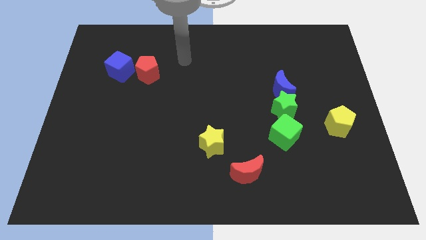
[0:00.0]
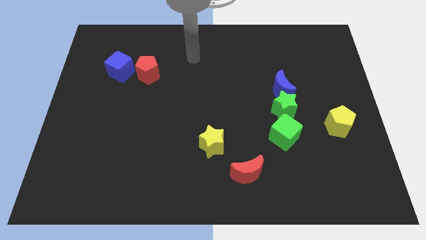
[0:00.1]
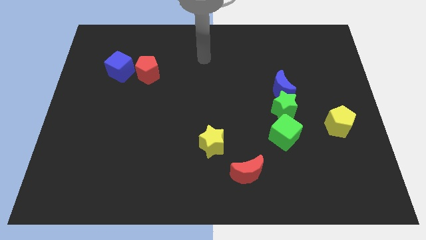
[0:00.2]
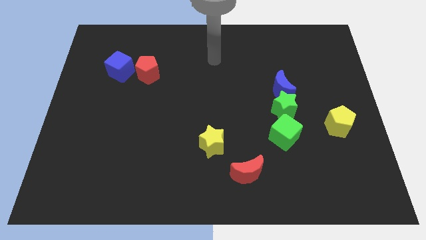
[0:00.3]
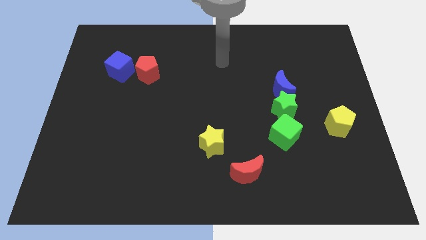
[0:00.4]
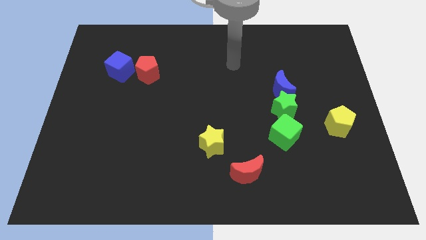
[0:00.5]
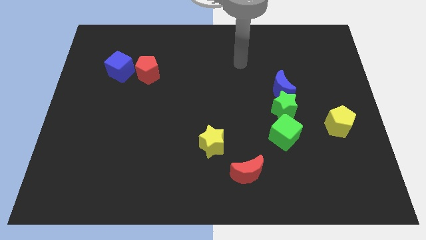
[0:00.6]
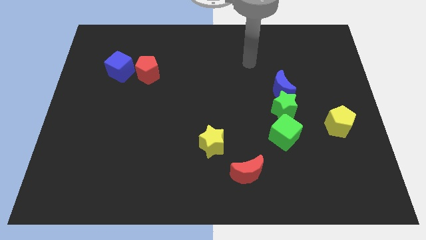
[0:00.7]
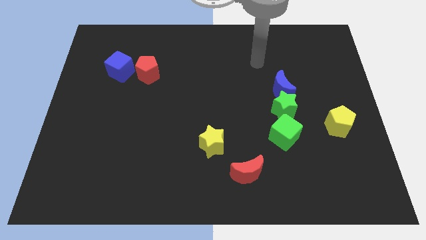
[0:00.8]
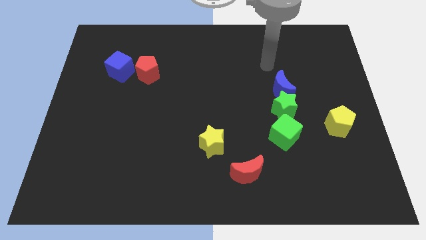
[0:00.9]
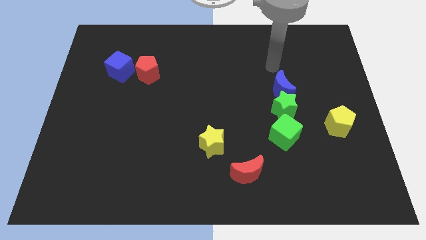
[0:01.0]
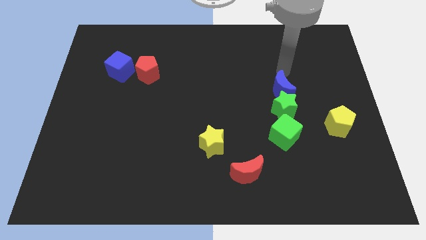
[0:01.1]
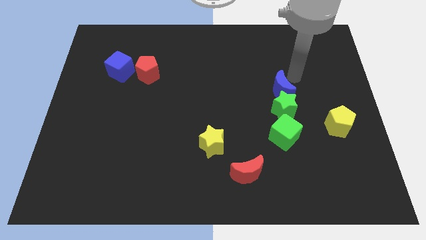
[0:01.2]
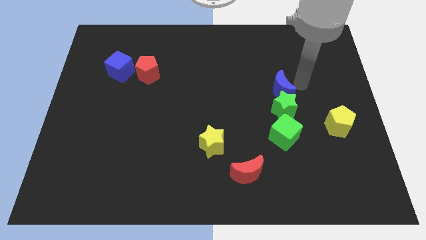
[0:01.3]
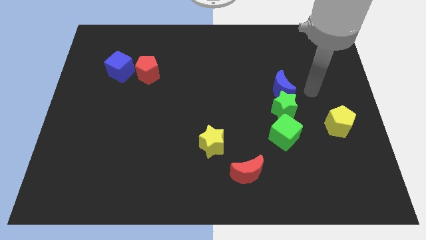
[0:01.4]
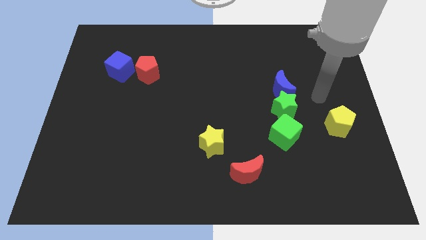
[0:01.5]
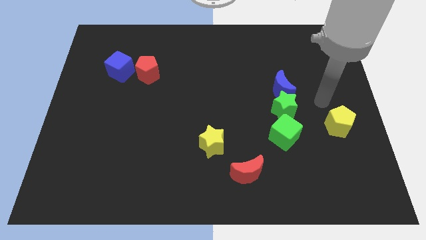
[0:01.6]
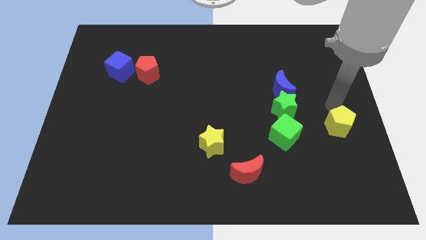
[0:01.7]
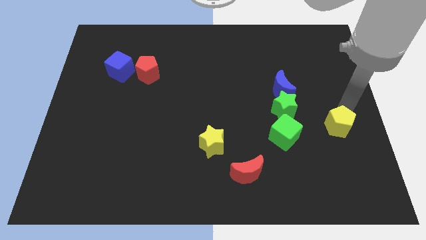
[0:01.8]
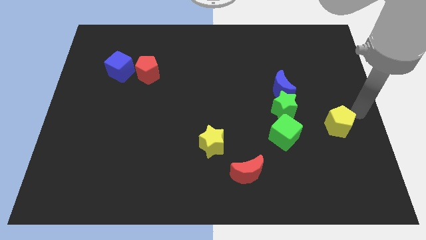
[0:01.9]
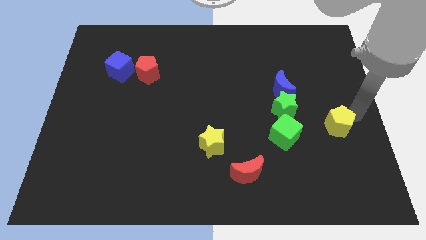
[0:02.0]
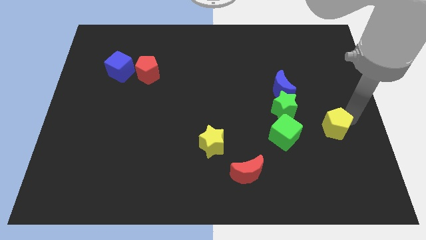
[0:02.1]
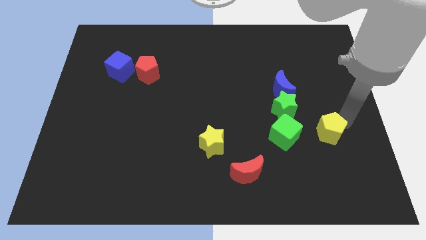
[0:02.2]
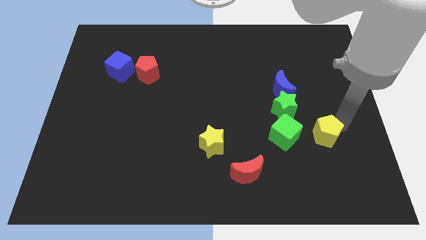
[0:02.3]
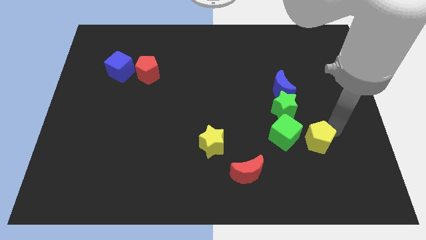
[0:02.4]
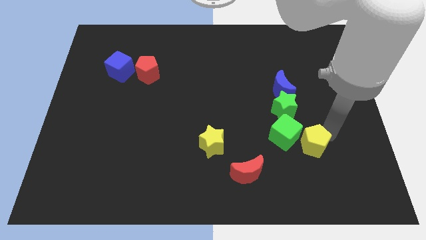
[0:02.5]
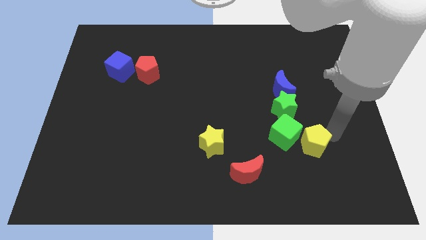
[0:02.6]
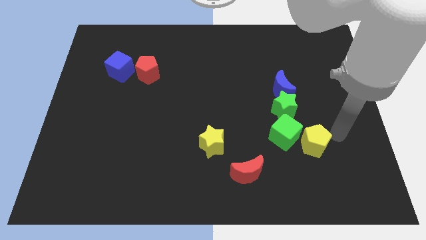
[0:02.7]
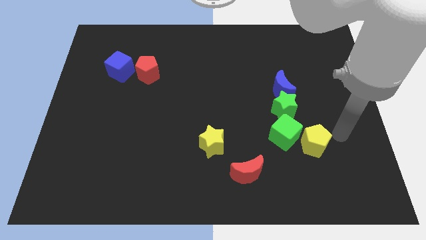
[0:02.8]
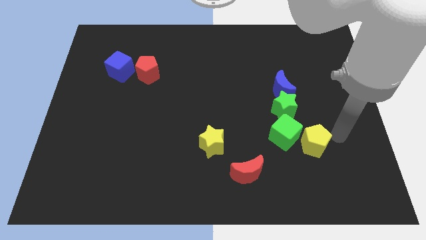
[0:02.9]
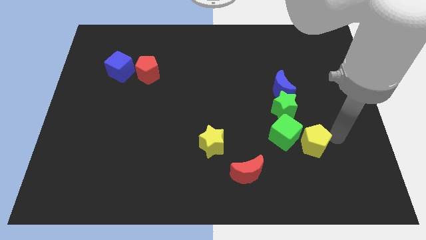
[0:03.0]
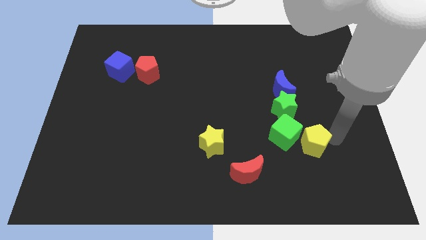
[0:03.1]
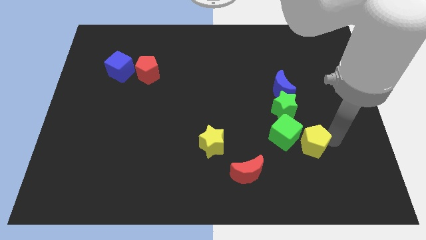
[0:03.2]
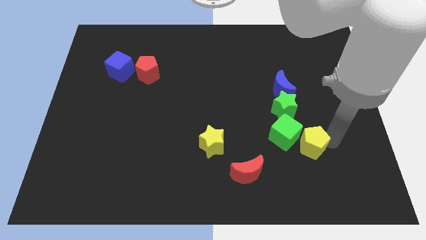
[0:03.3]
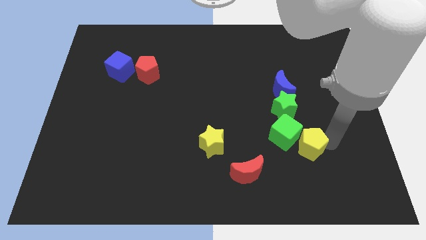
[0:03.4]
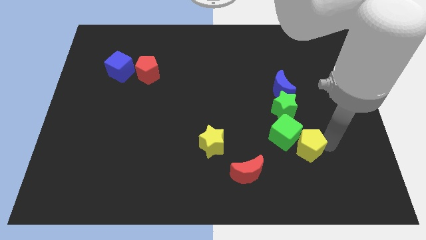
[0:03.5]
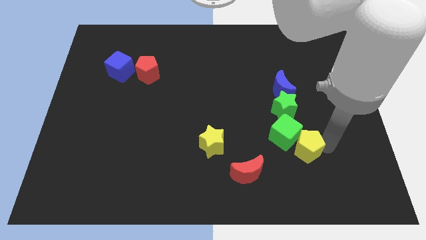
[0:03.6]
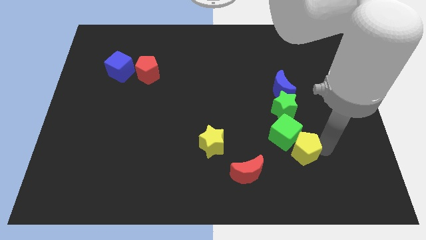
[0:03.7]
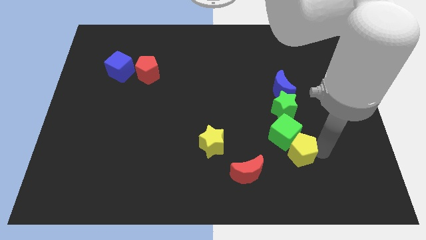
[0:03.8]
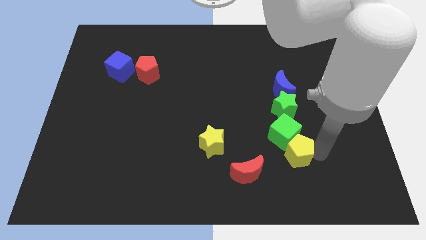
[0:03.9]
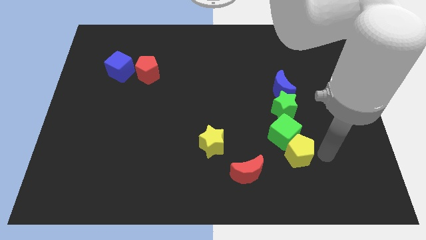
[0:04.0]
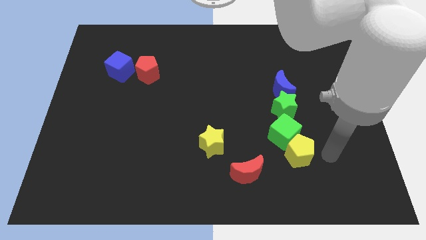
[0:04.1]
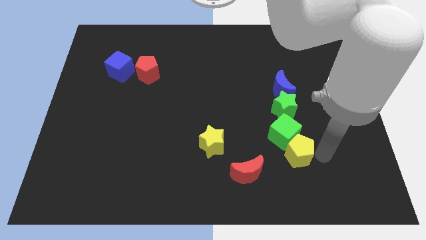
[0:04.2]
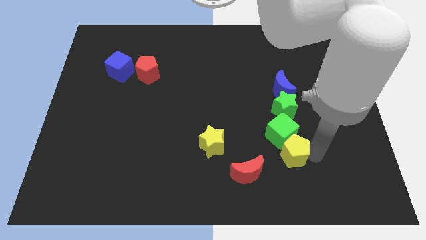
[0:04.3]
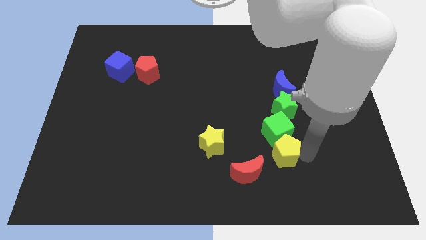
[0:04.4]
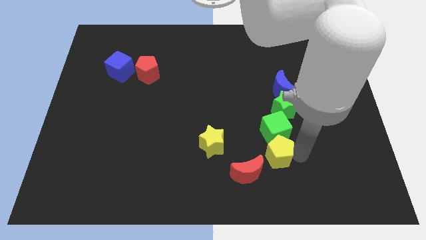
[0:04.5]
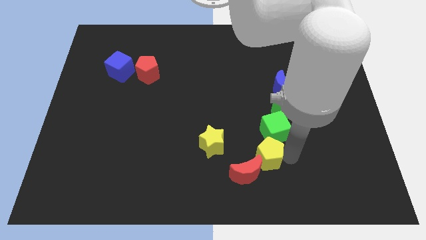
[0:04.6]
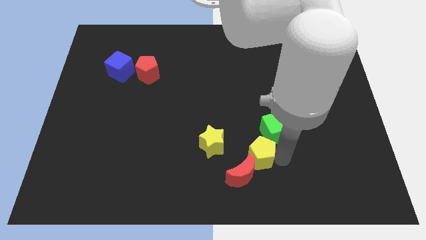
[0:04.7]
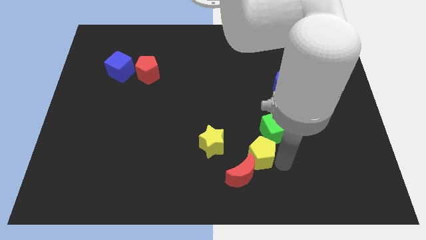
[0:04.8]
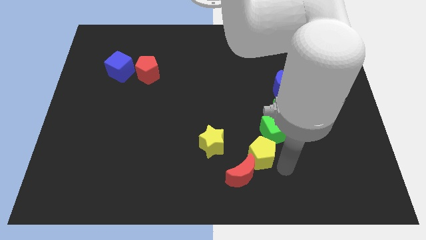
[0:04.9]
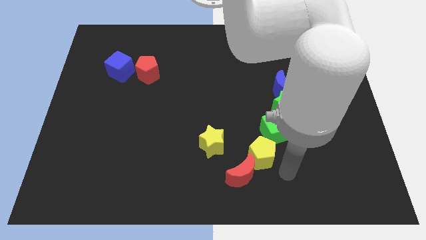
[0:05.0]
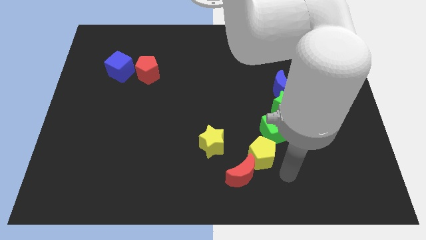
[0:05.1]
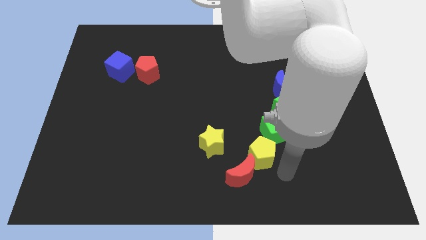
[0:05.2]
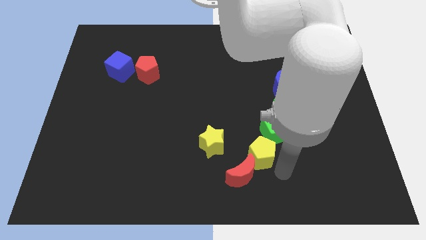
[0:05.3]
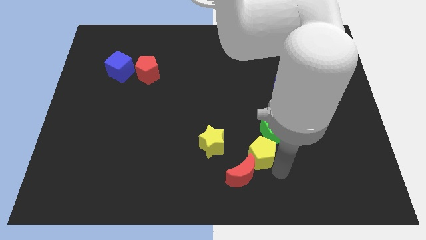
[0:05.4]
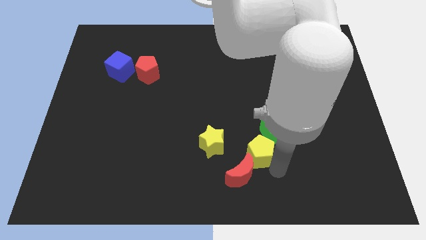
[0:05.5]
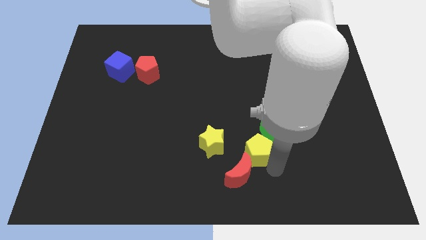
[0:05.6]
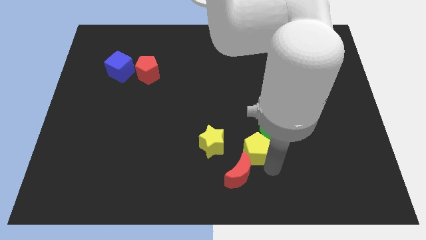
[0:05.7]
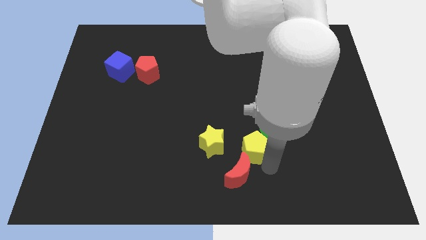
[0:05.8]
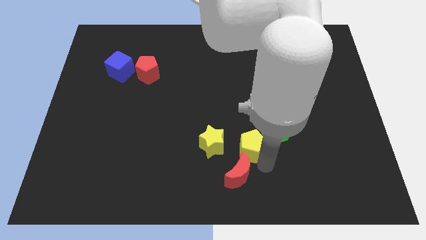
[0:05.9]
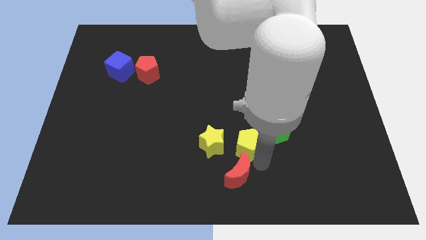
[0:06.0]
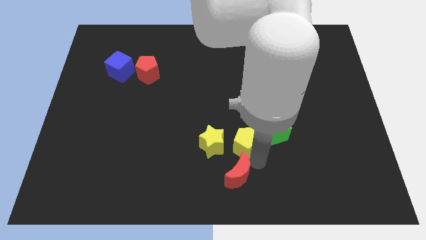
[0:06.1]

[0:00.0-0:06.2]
move the yellow pentagon to the left

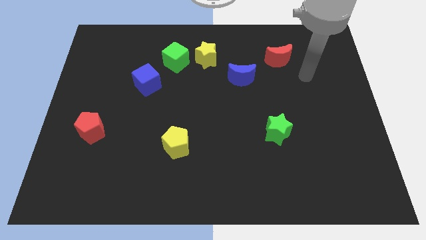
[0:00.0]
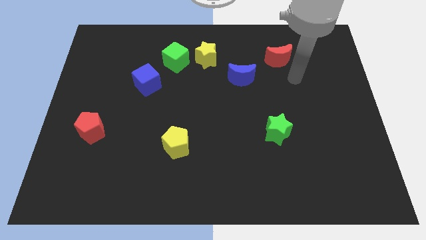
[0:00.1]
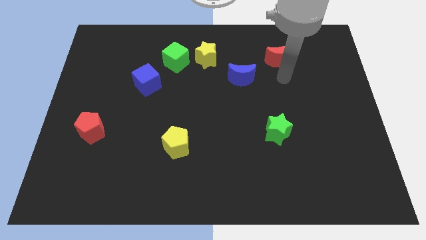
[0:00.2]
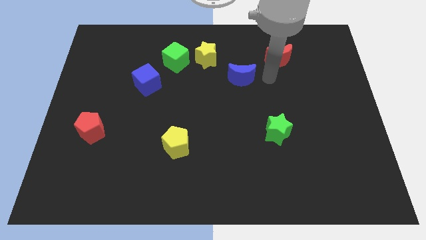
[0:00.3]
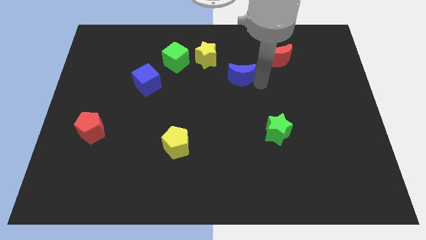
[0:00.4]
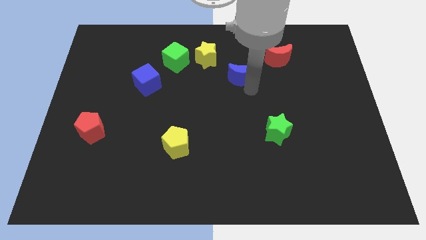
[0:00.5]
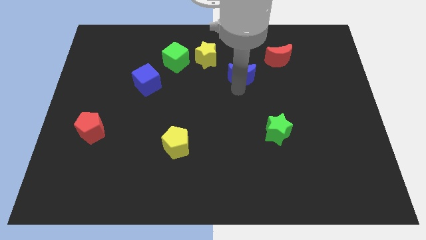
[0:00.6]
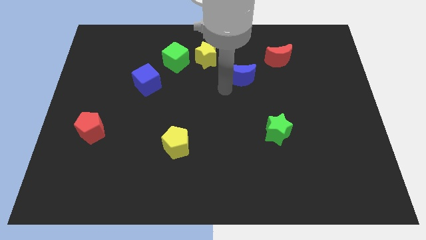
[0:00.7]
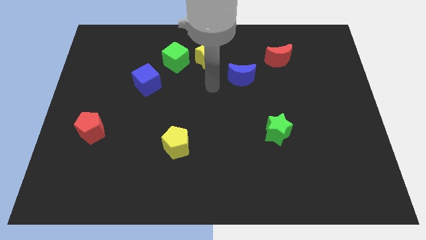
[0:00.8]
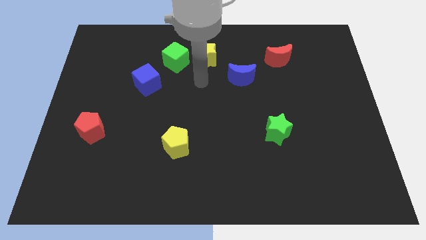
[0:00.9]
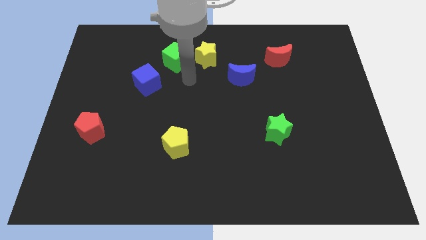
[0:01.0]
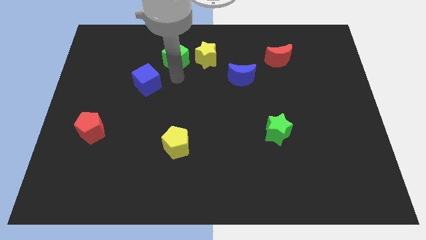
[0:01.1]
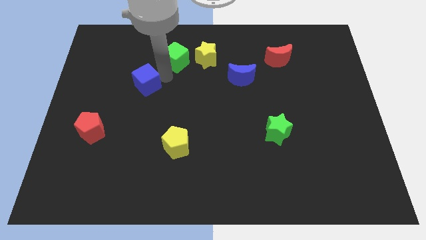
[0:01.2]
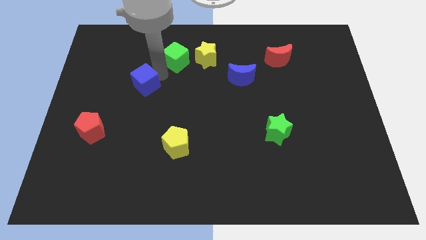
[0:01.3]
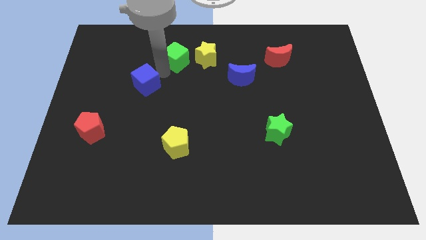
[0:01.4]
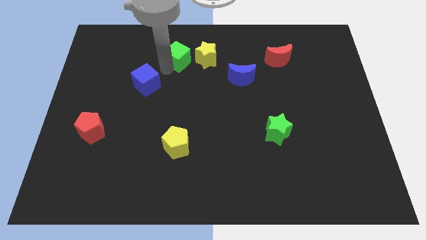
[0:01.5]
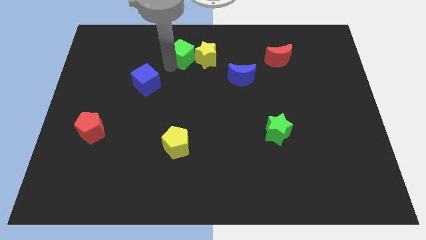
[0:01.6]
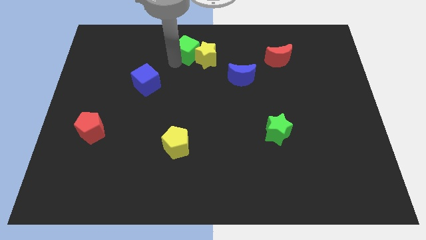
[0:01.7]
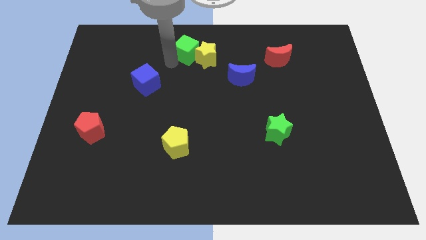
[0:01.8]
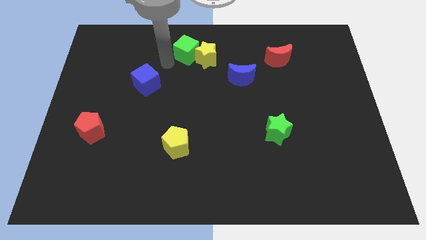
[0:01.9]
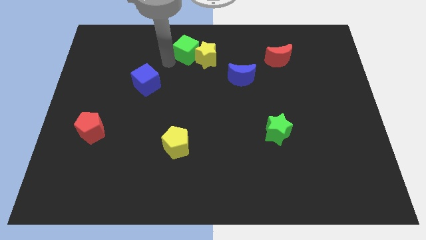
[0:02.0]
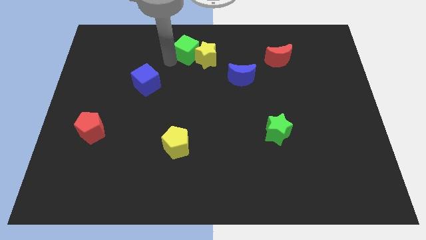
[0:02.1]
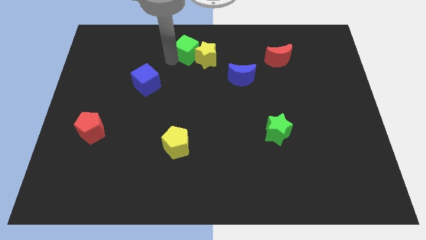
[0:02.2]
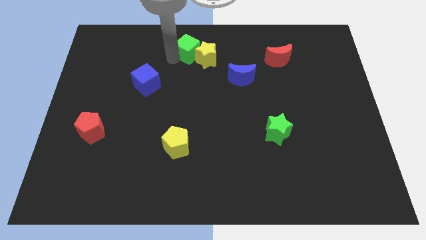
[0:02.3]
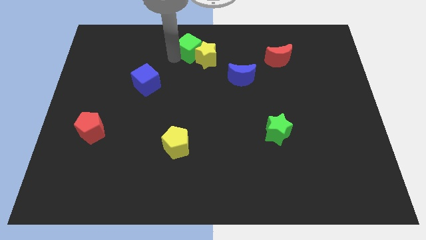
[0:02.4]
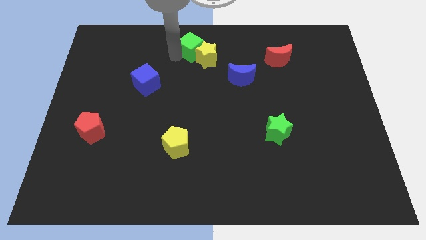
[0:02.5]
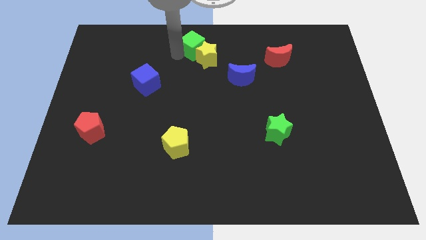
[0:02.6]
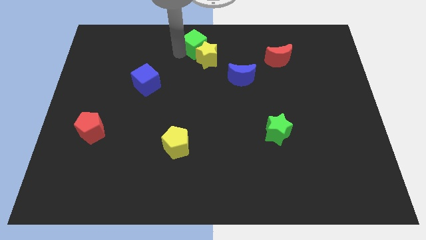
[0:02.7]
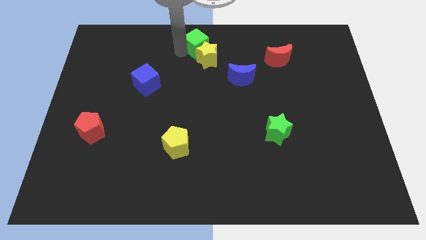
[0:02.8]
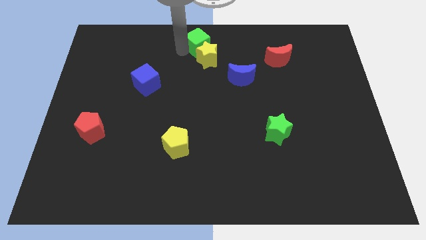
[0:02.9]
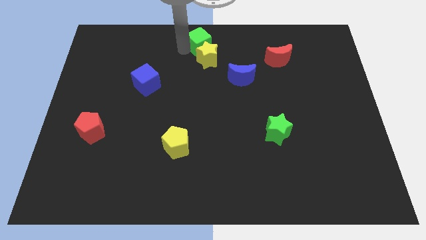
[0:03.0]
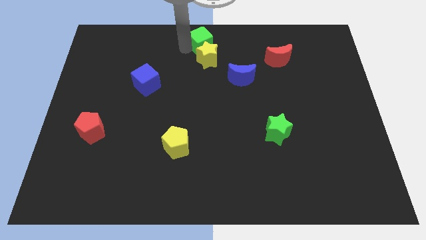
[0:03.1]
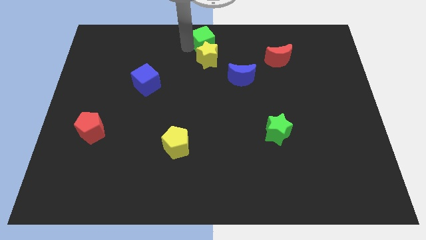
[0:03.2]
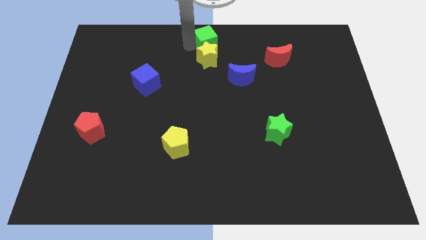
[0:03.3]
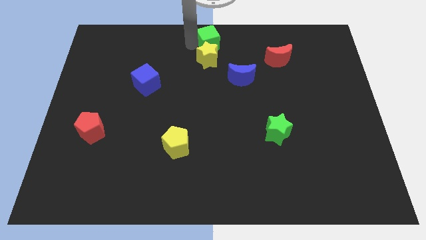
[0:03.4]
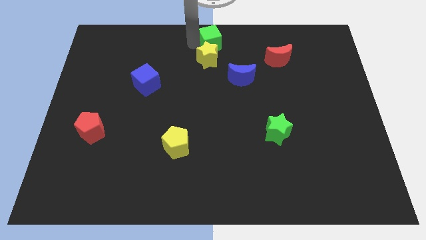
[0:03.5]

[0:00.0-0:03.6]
move the green cube to the right a bit
